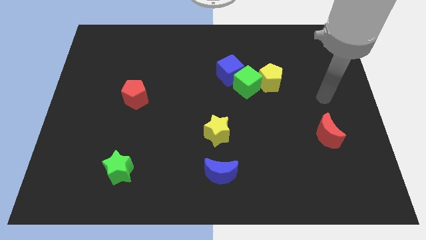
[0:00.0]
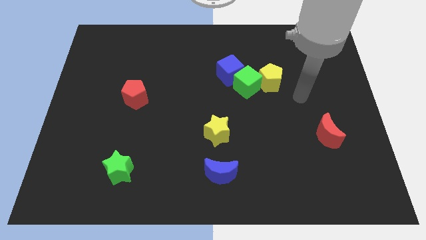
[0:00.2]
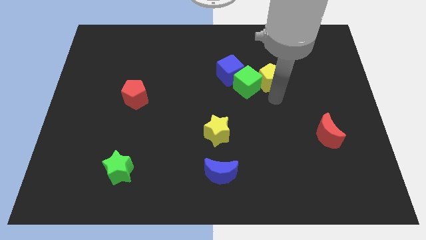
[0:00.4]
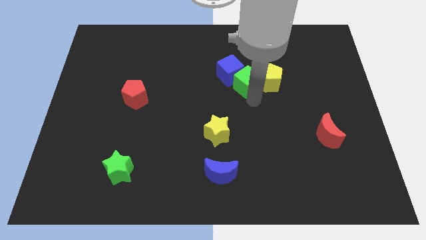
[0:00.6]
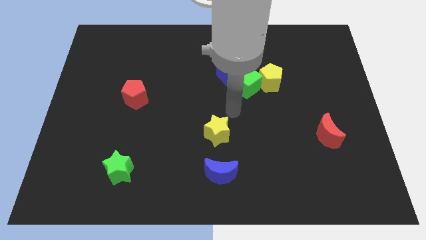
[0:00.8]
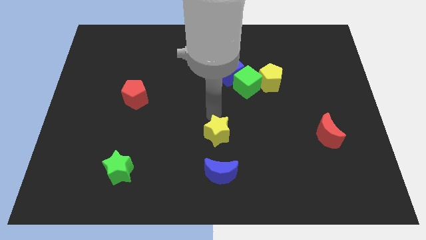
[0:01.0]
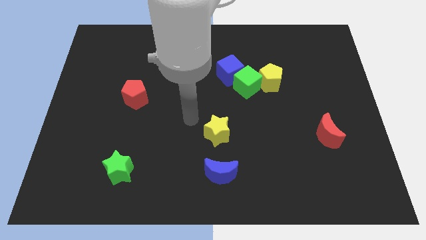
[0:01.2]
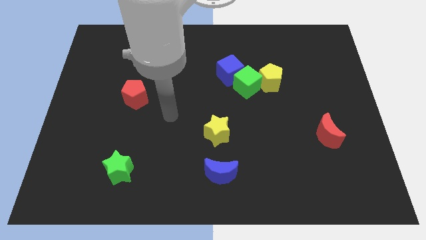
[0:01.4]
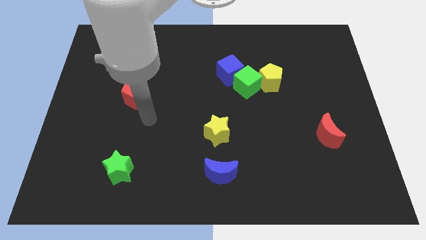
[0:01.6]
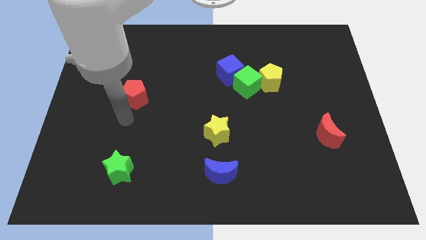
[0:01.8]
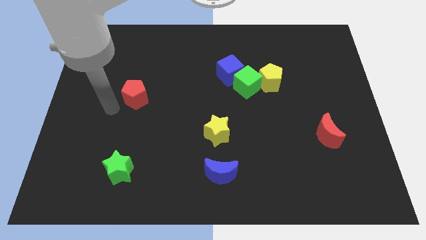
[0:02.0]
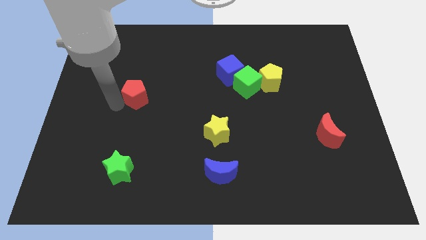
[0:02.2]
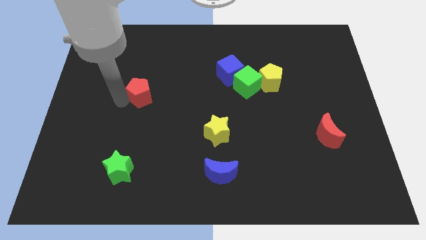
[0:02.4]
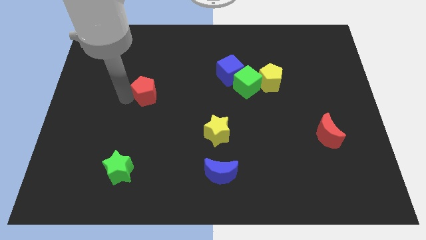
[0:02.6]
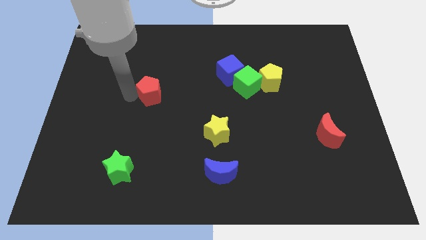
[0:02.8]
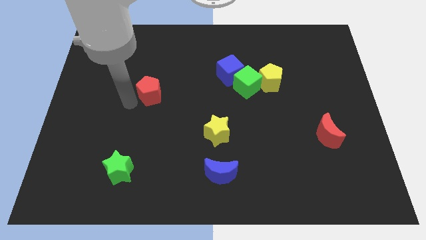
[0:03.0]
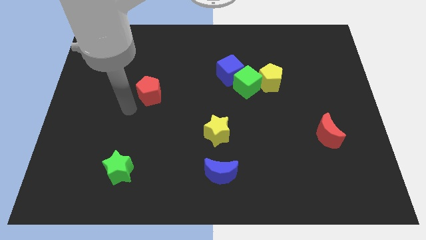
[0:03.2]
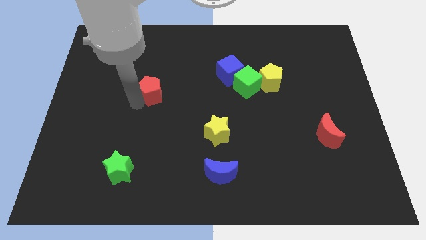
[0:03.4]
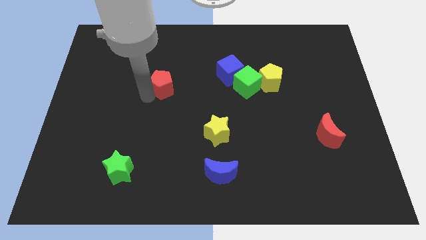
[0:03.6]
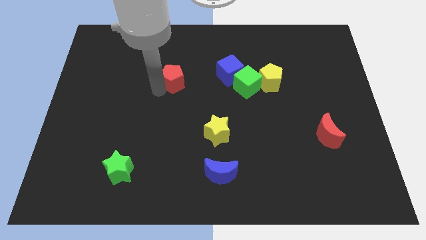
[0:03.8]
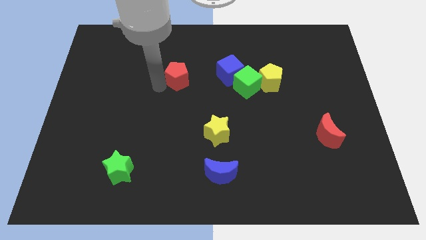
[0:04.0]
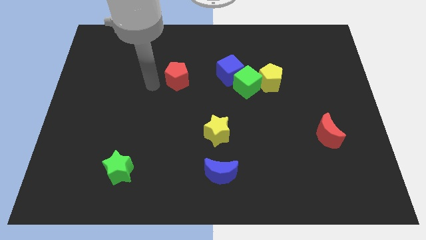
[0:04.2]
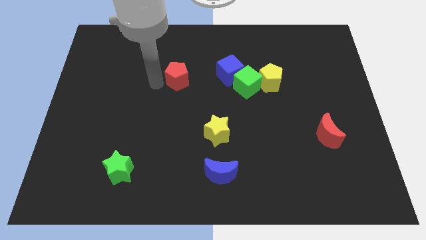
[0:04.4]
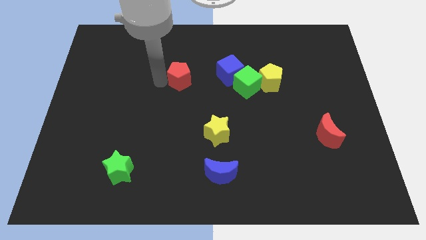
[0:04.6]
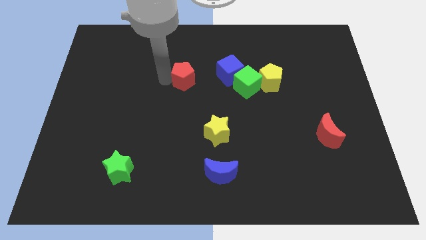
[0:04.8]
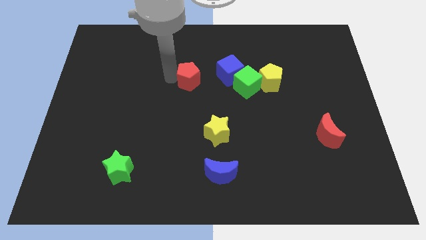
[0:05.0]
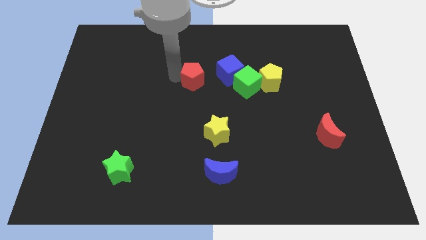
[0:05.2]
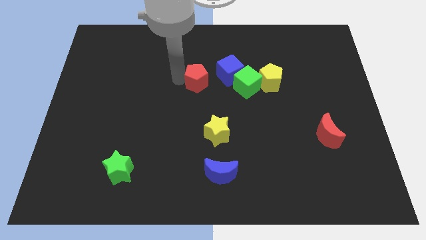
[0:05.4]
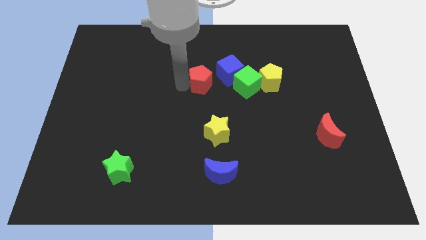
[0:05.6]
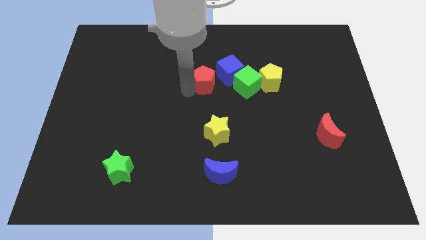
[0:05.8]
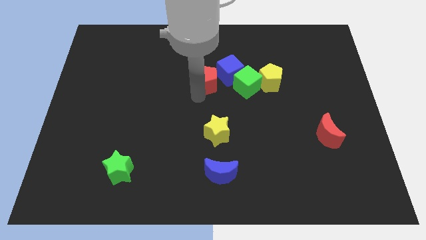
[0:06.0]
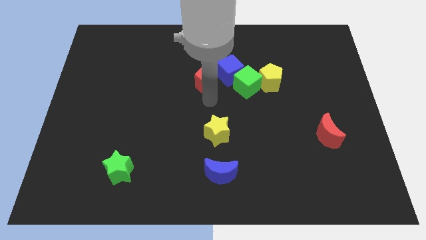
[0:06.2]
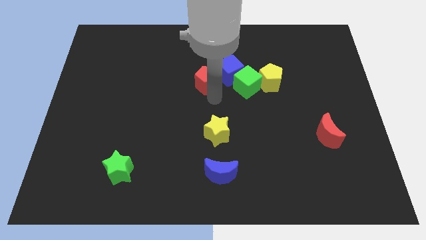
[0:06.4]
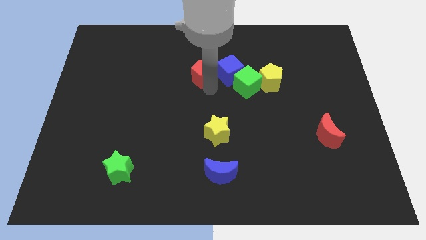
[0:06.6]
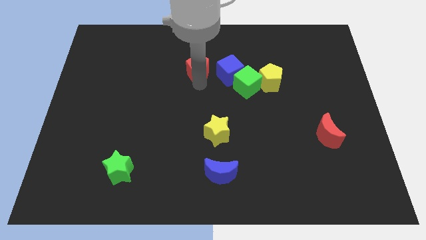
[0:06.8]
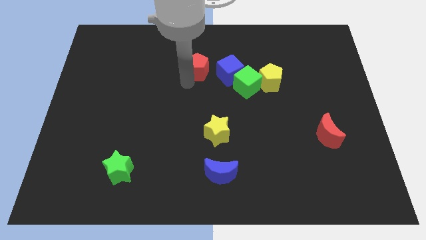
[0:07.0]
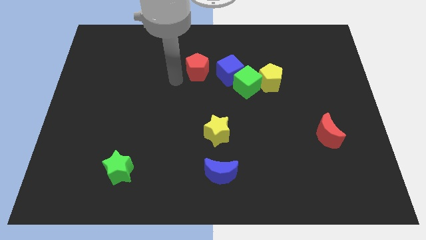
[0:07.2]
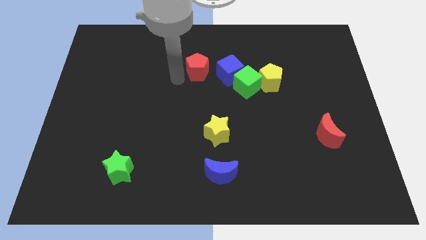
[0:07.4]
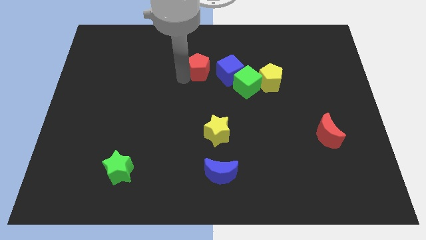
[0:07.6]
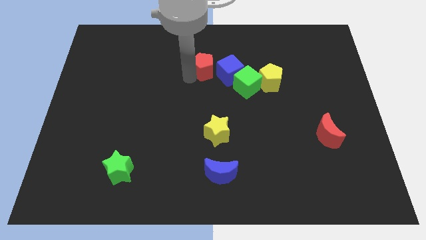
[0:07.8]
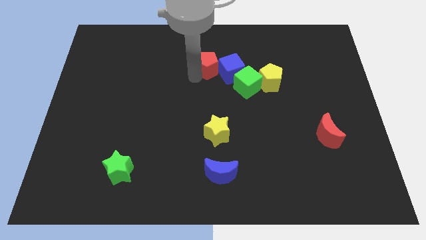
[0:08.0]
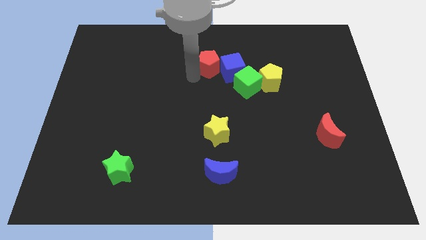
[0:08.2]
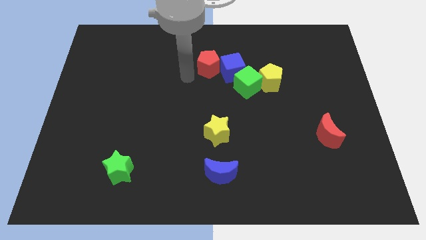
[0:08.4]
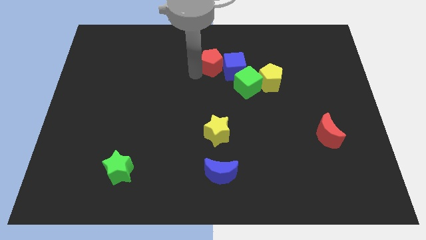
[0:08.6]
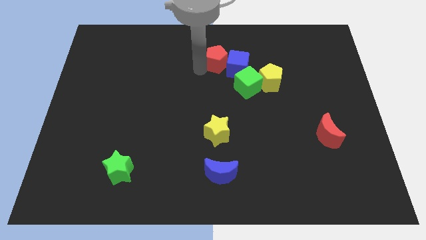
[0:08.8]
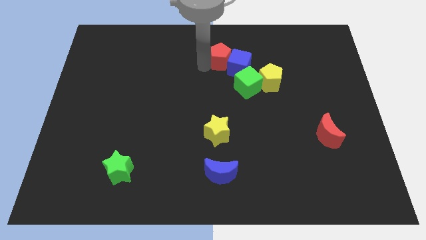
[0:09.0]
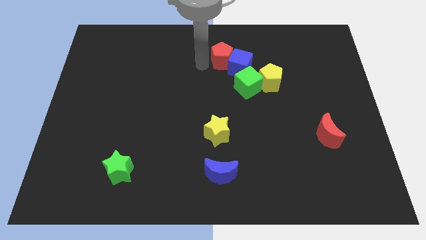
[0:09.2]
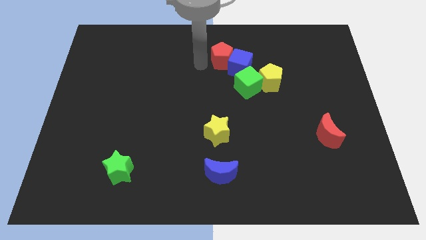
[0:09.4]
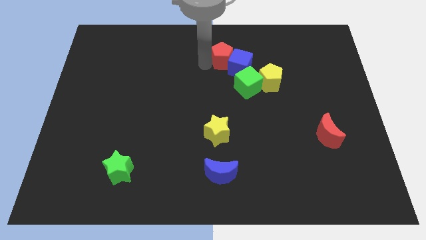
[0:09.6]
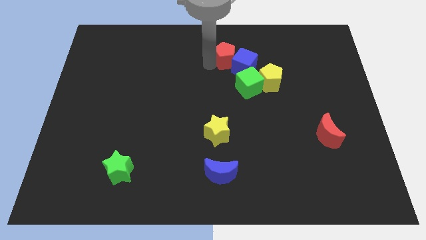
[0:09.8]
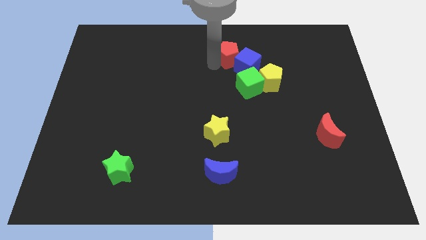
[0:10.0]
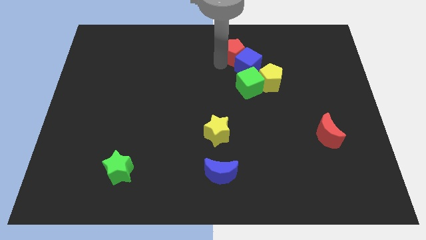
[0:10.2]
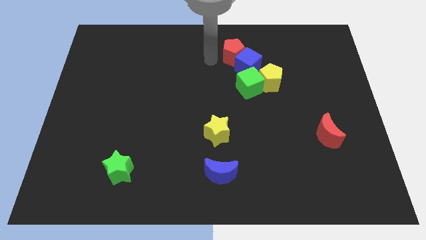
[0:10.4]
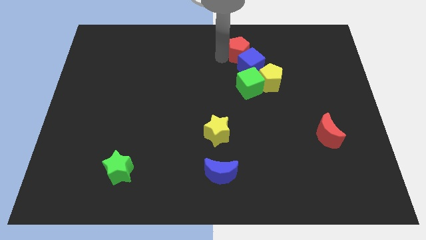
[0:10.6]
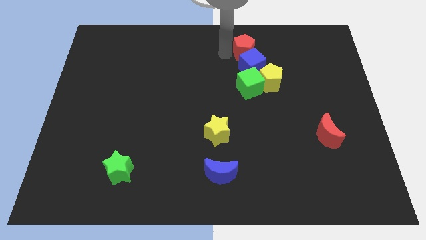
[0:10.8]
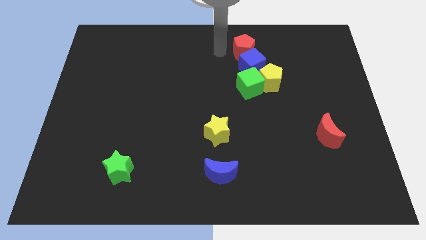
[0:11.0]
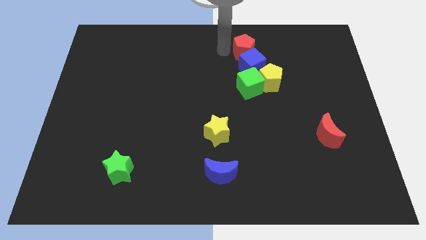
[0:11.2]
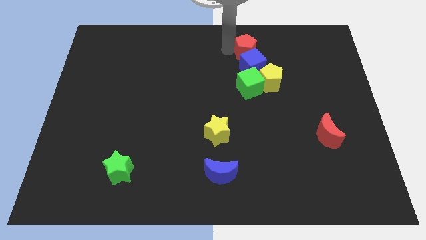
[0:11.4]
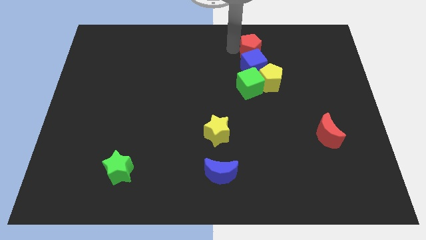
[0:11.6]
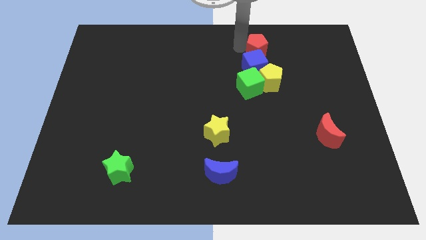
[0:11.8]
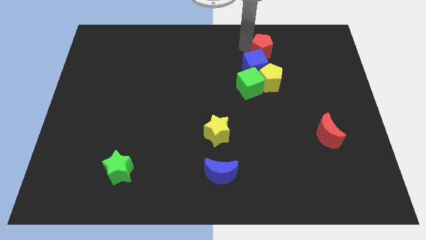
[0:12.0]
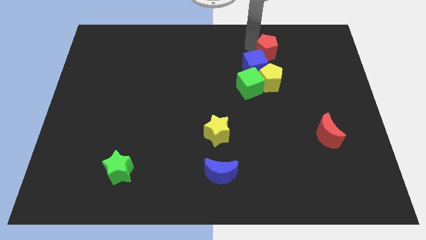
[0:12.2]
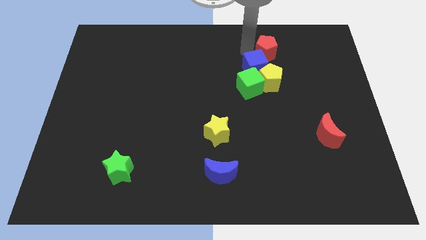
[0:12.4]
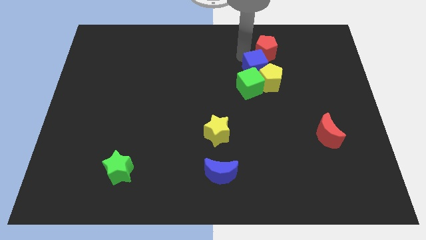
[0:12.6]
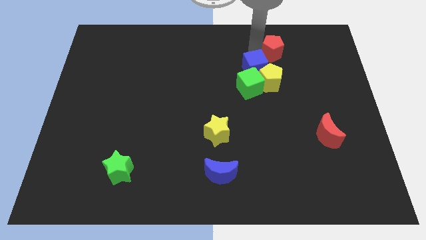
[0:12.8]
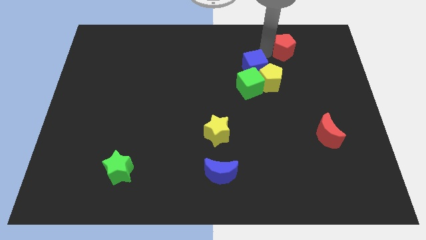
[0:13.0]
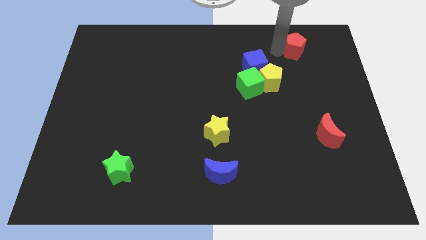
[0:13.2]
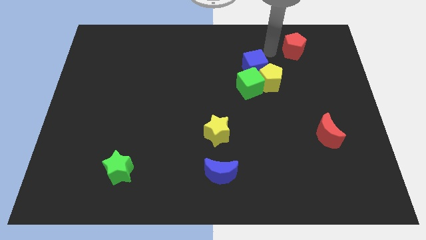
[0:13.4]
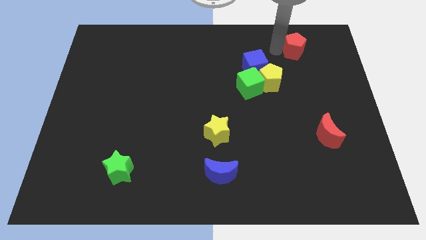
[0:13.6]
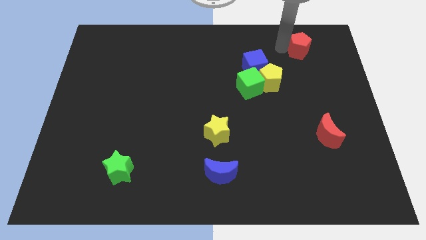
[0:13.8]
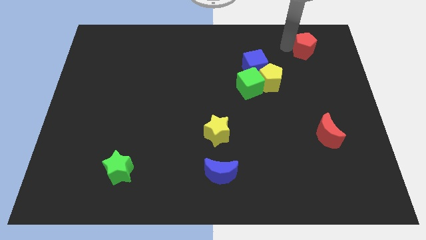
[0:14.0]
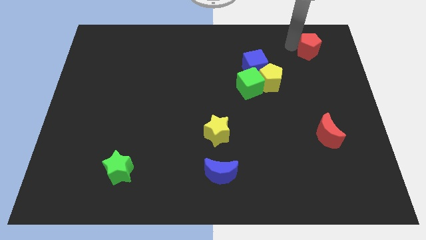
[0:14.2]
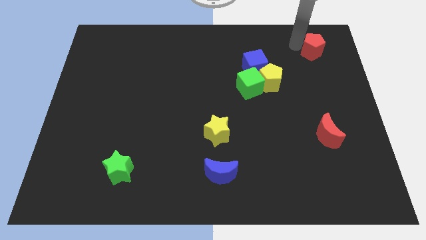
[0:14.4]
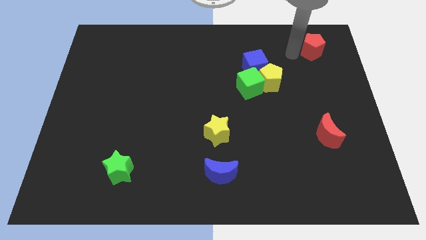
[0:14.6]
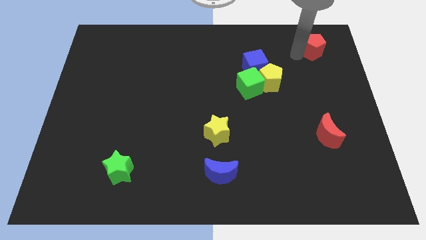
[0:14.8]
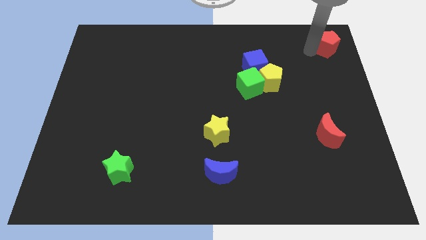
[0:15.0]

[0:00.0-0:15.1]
move the red pentagon to the top right corner
